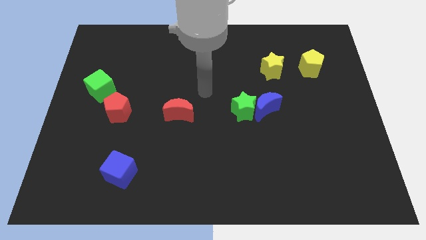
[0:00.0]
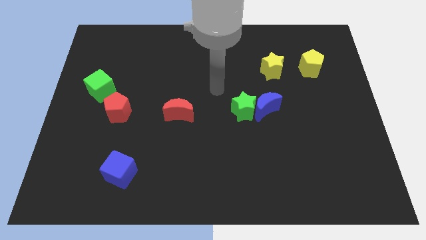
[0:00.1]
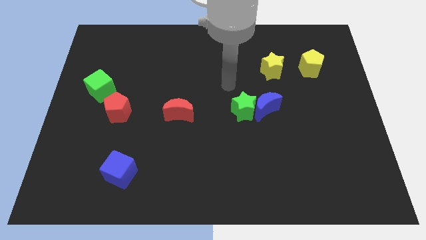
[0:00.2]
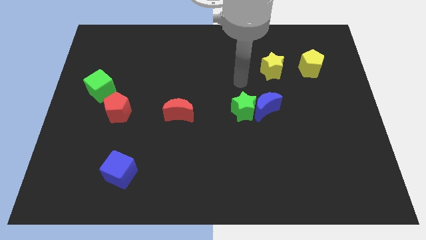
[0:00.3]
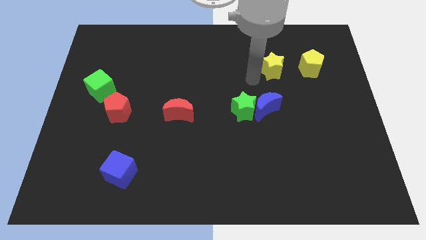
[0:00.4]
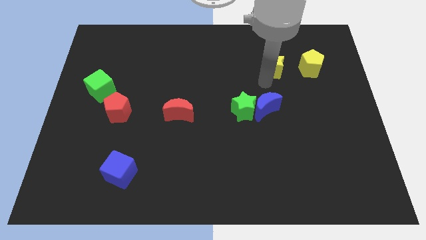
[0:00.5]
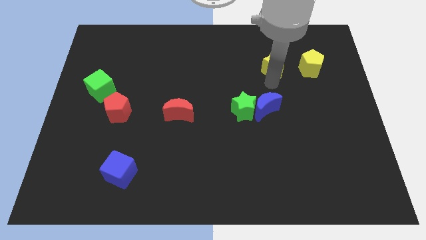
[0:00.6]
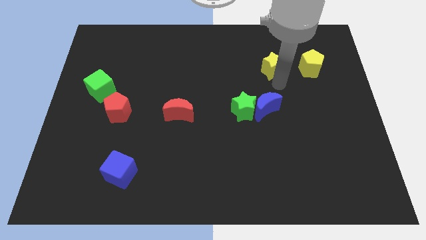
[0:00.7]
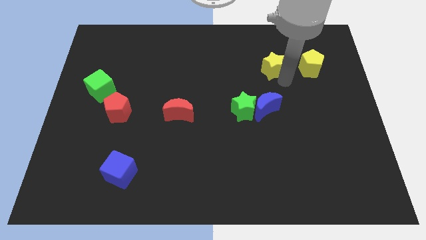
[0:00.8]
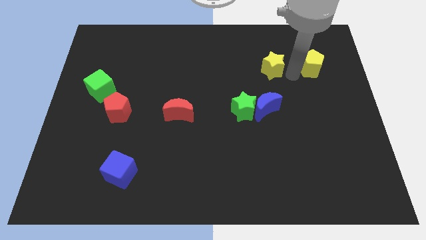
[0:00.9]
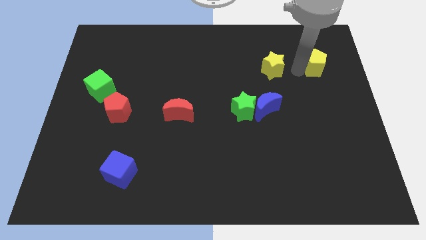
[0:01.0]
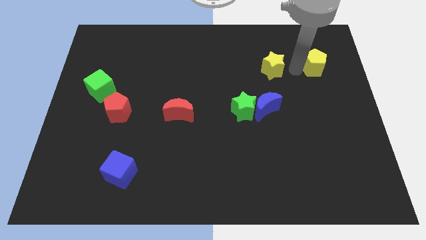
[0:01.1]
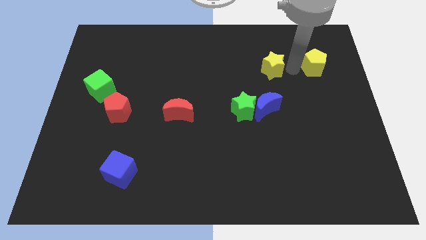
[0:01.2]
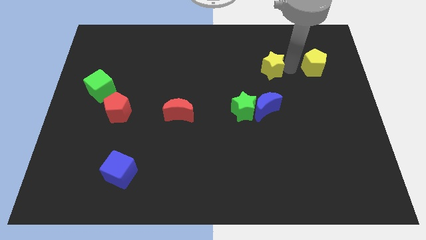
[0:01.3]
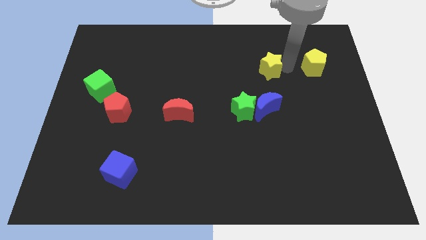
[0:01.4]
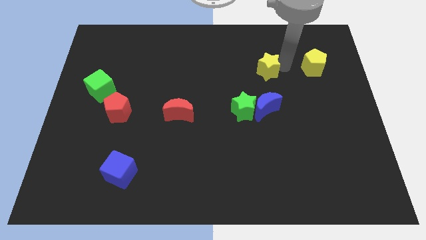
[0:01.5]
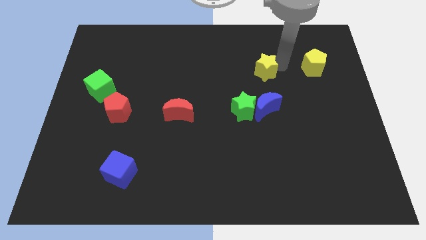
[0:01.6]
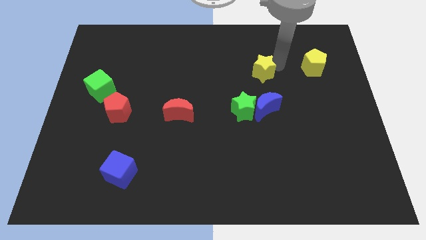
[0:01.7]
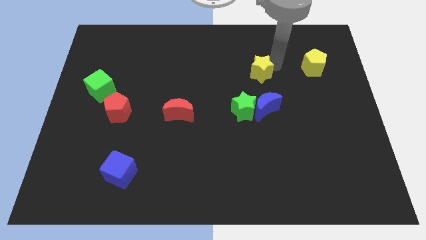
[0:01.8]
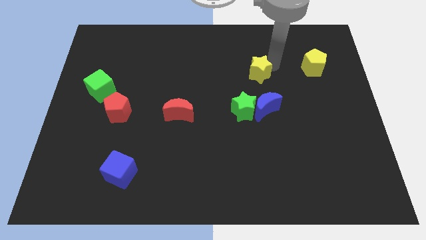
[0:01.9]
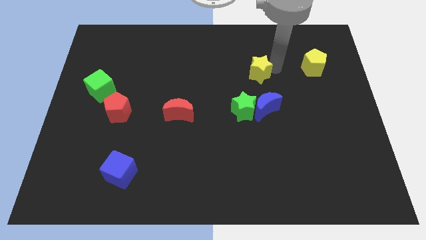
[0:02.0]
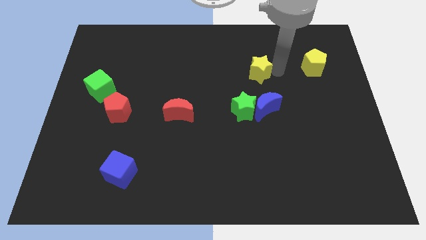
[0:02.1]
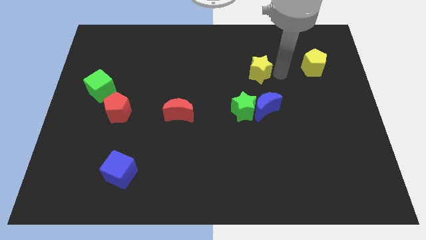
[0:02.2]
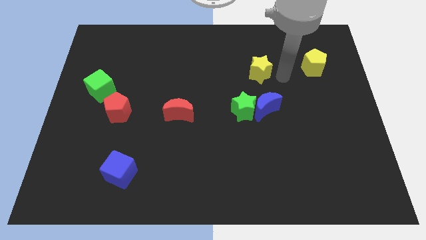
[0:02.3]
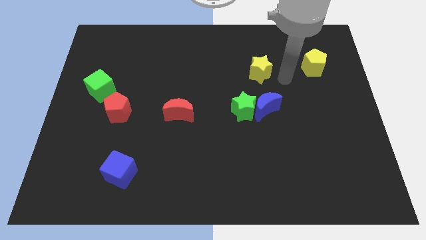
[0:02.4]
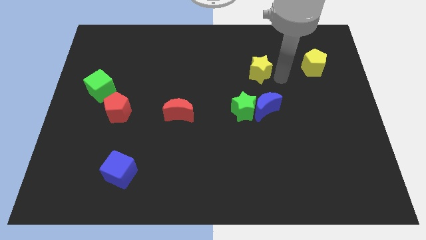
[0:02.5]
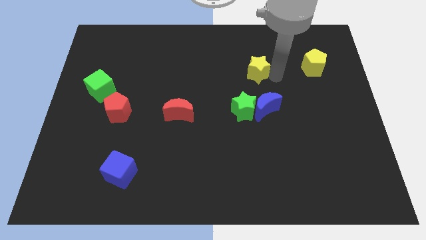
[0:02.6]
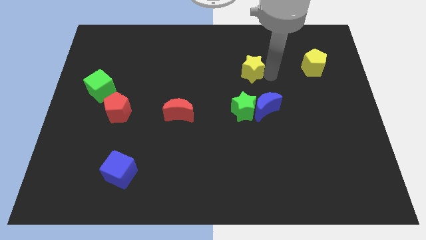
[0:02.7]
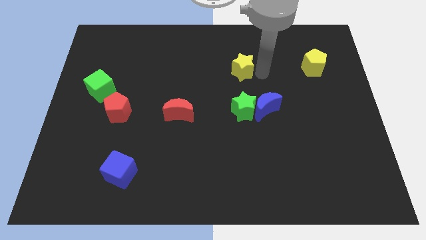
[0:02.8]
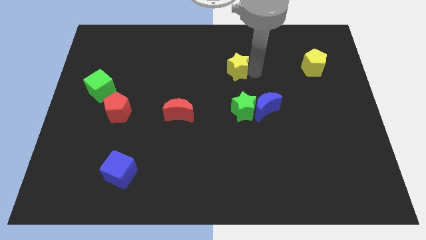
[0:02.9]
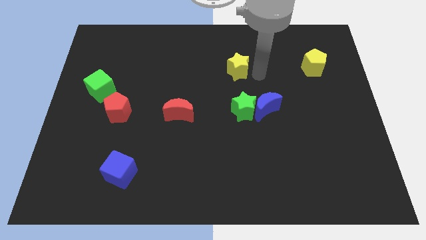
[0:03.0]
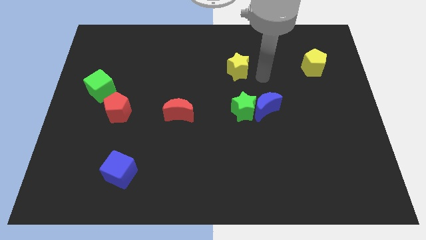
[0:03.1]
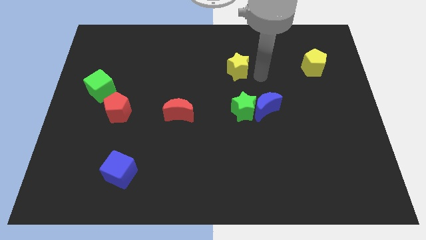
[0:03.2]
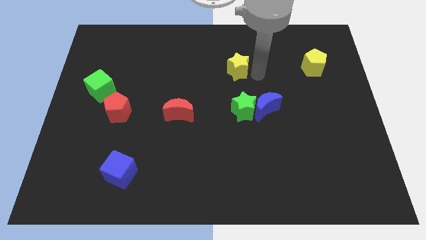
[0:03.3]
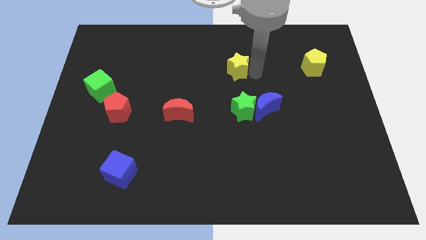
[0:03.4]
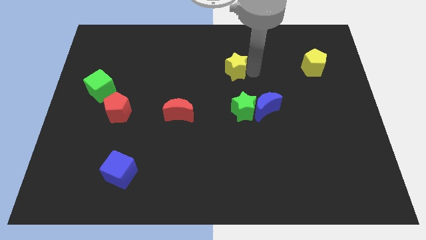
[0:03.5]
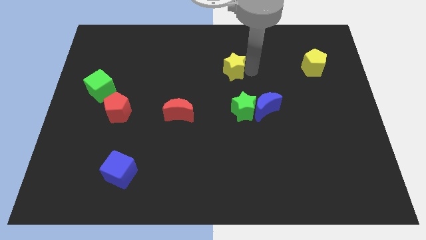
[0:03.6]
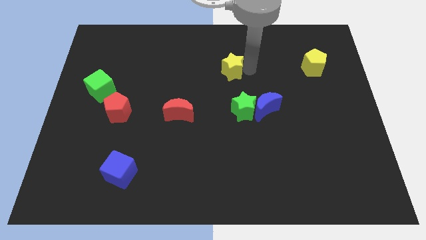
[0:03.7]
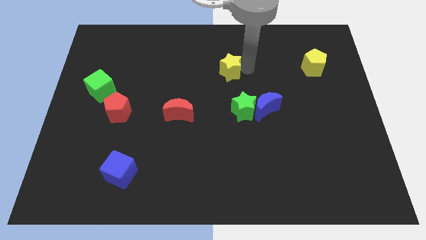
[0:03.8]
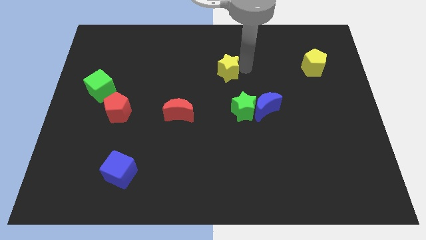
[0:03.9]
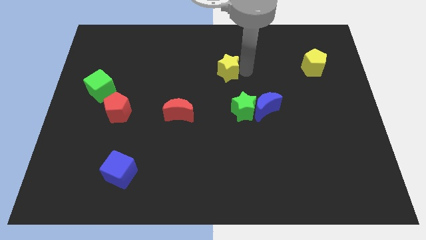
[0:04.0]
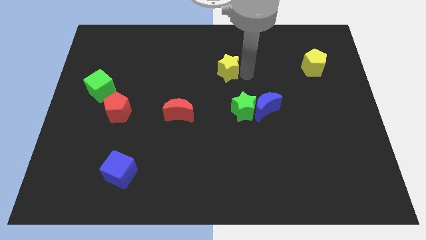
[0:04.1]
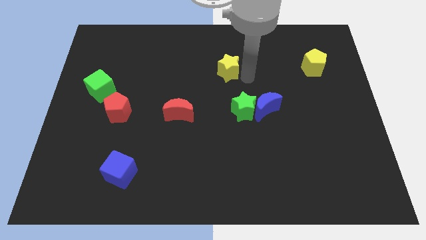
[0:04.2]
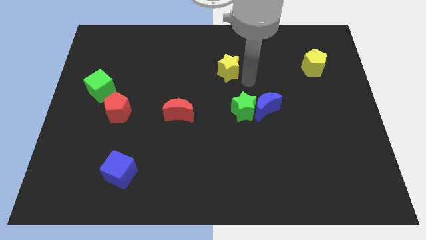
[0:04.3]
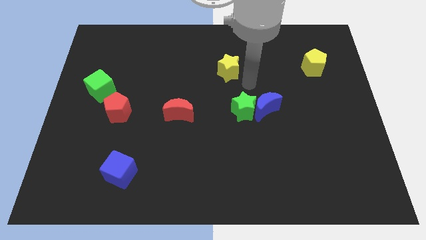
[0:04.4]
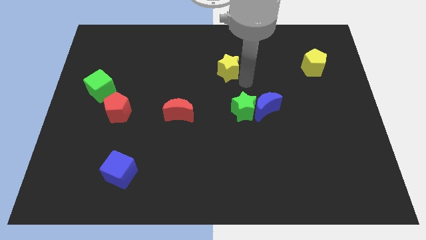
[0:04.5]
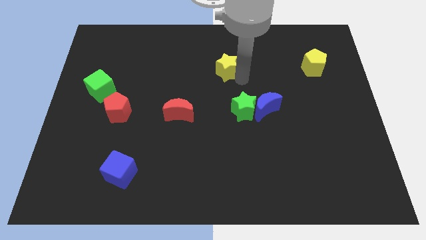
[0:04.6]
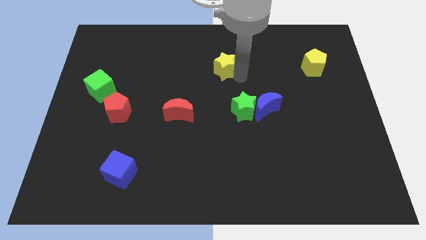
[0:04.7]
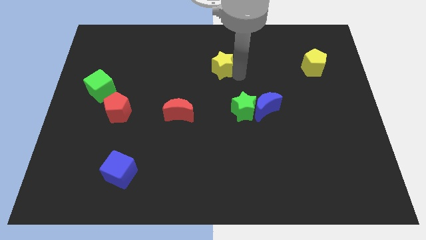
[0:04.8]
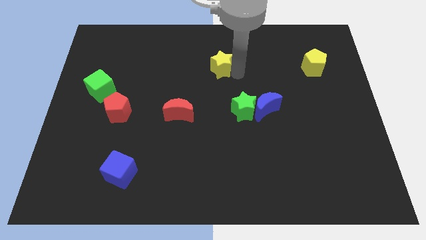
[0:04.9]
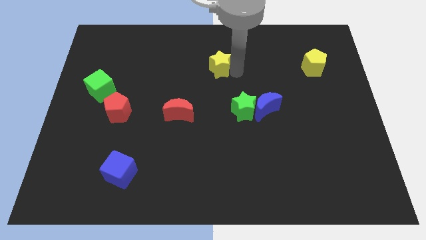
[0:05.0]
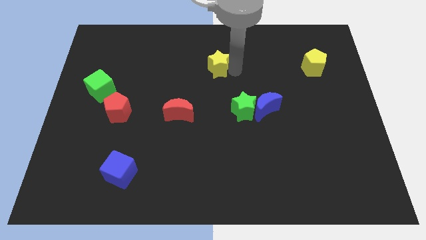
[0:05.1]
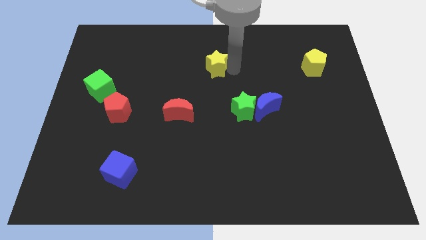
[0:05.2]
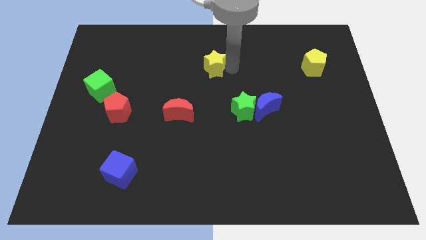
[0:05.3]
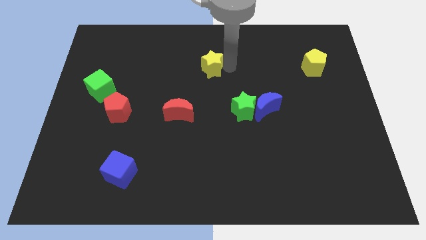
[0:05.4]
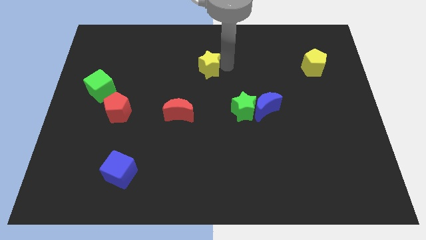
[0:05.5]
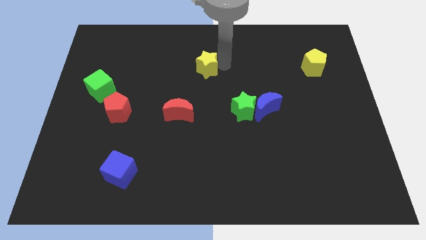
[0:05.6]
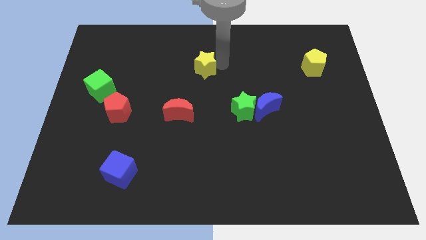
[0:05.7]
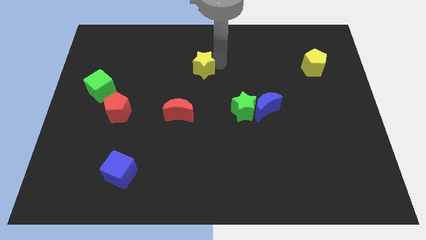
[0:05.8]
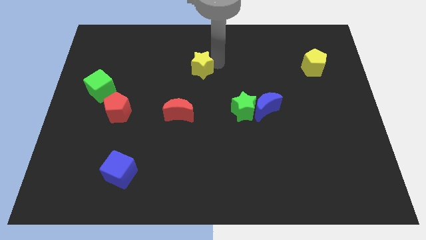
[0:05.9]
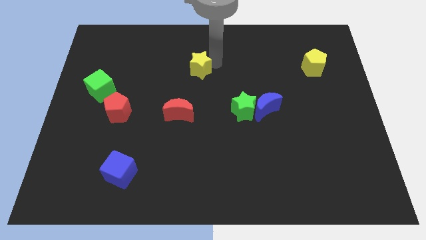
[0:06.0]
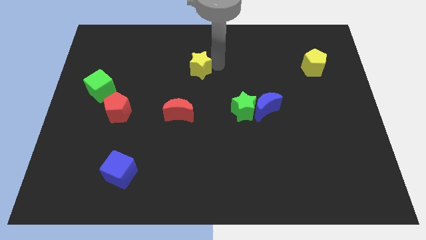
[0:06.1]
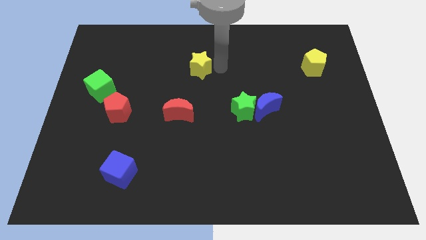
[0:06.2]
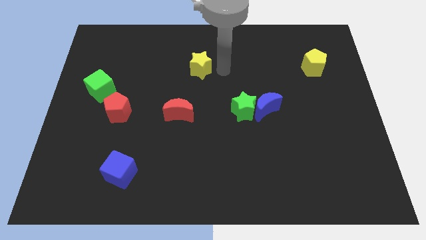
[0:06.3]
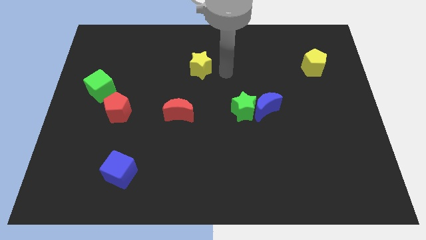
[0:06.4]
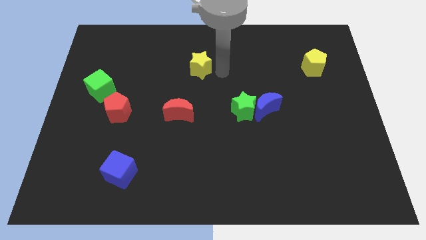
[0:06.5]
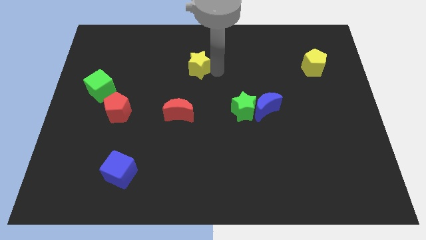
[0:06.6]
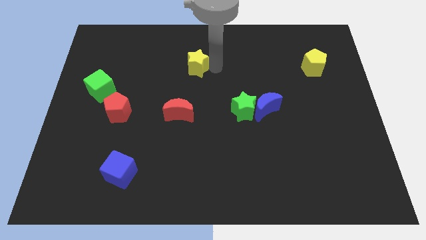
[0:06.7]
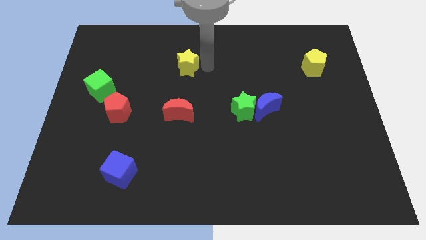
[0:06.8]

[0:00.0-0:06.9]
slide the yellow star to the left

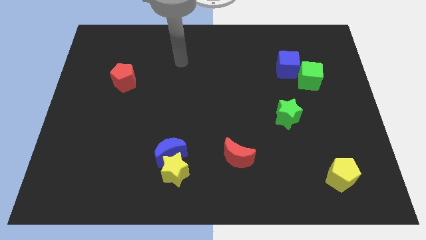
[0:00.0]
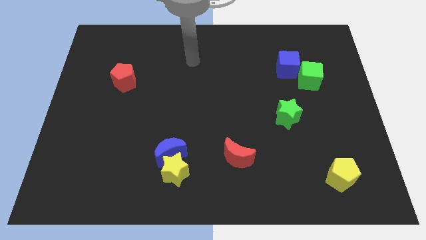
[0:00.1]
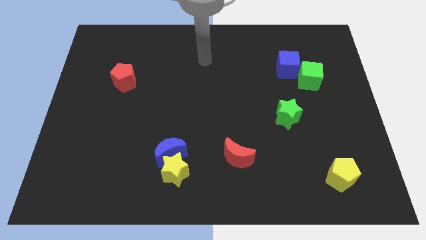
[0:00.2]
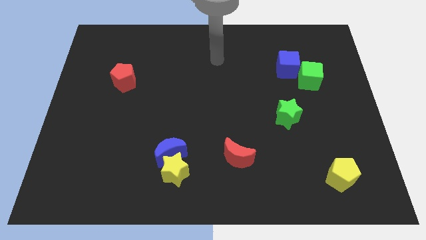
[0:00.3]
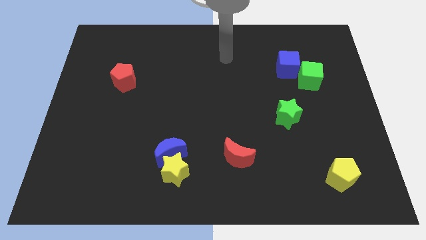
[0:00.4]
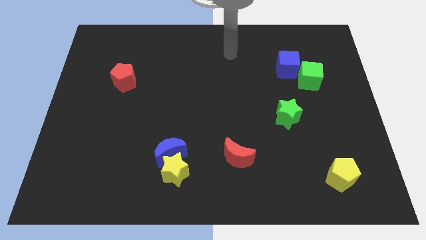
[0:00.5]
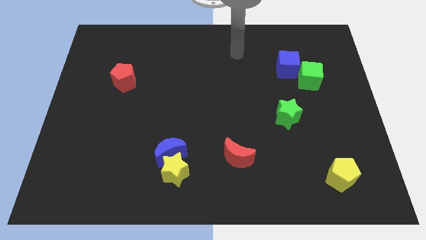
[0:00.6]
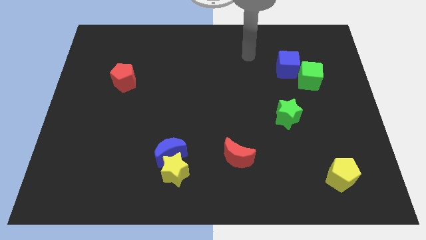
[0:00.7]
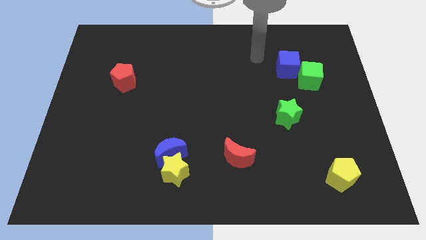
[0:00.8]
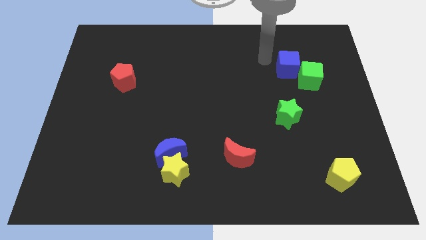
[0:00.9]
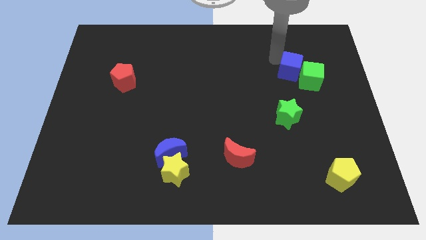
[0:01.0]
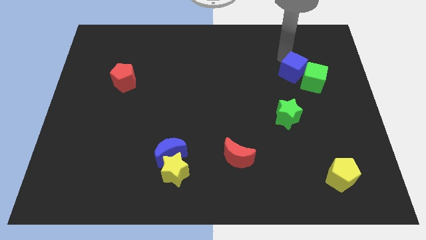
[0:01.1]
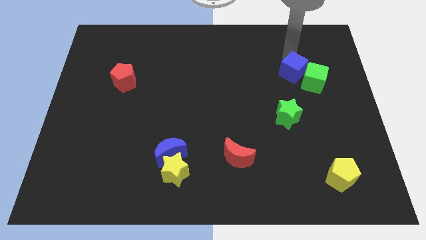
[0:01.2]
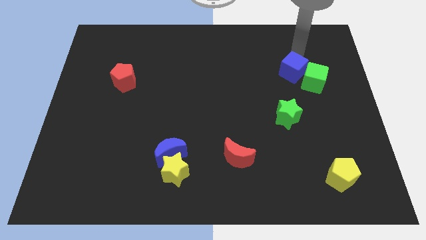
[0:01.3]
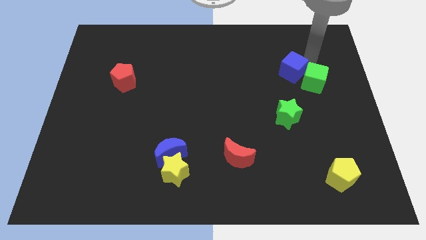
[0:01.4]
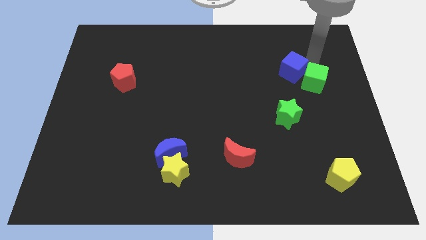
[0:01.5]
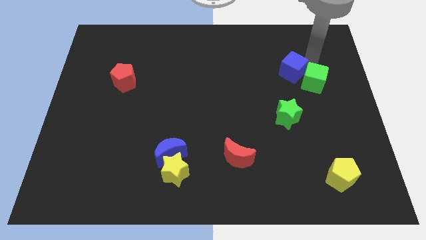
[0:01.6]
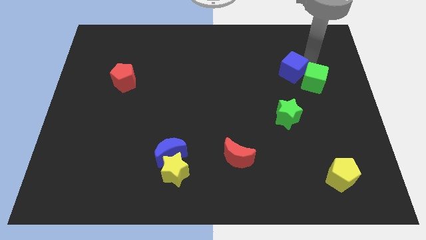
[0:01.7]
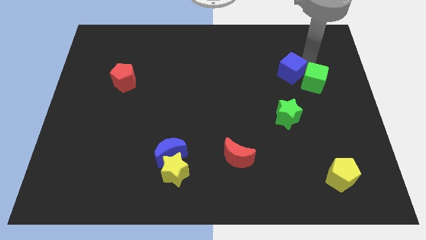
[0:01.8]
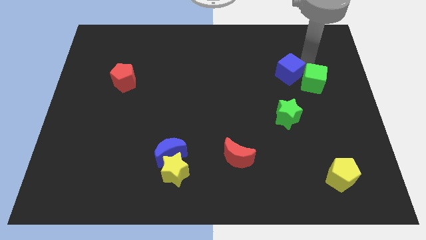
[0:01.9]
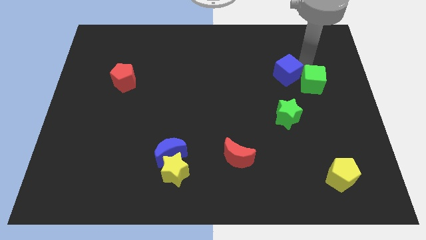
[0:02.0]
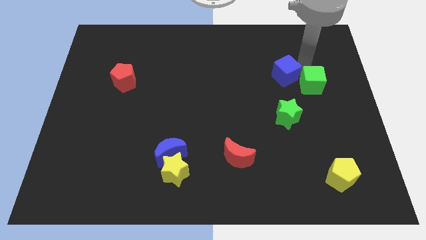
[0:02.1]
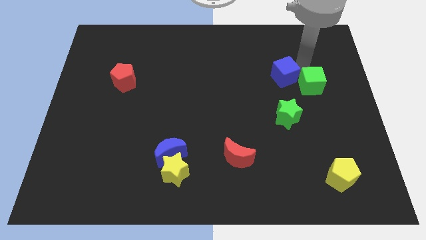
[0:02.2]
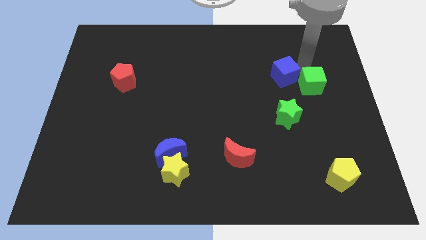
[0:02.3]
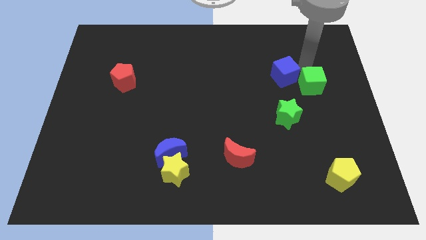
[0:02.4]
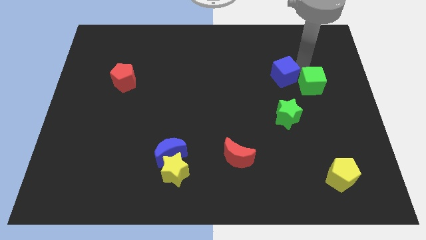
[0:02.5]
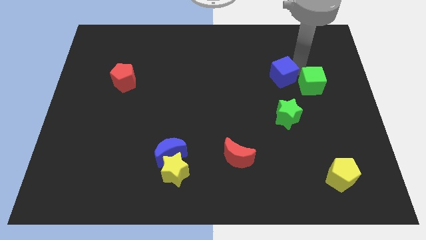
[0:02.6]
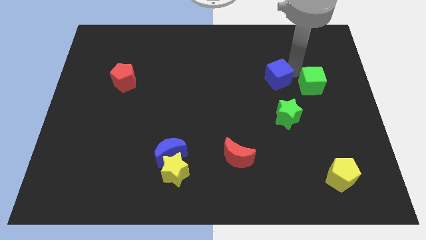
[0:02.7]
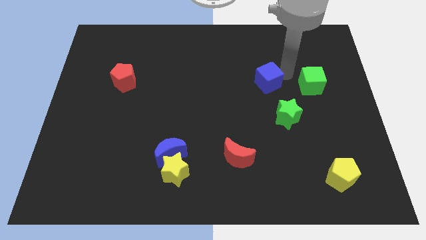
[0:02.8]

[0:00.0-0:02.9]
slide the blue cube a little diagonally down and to the left
